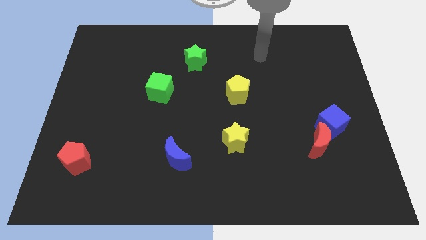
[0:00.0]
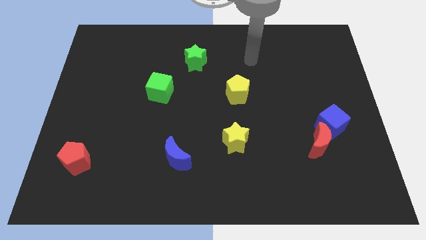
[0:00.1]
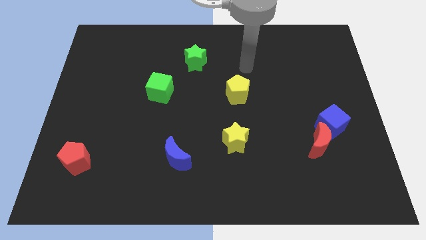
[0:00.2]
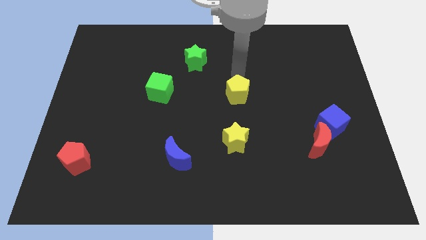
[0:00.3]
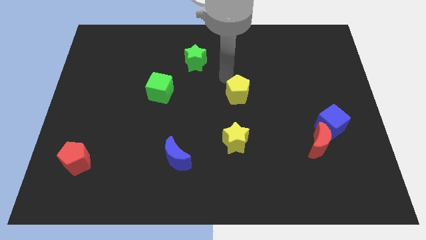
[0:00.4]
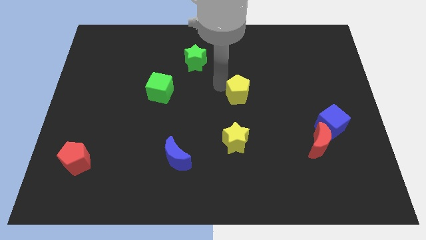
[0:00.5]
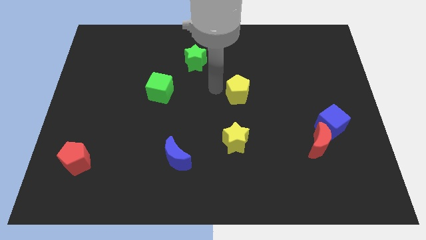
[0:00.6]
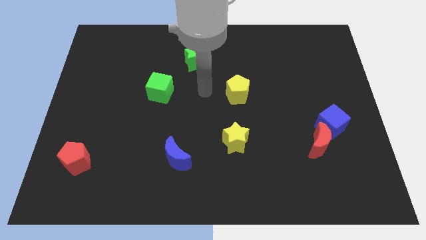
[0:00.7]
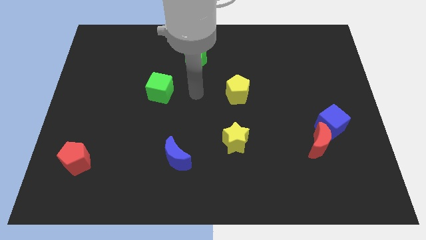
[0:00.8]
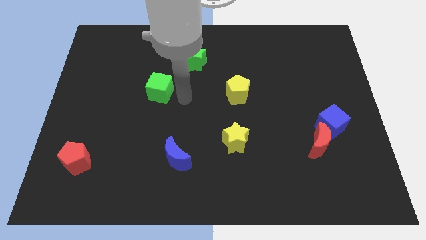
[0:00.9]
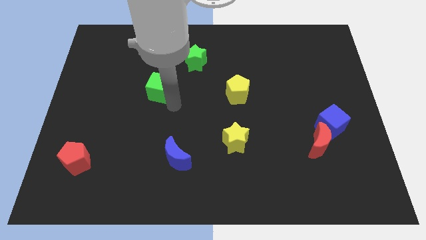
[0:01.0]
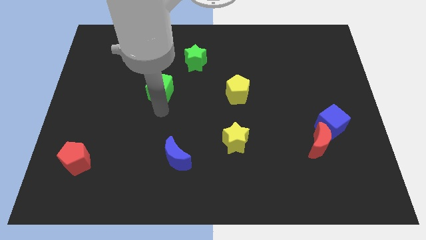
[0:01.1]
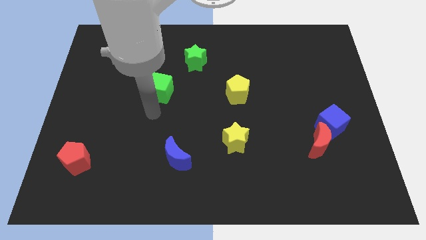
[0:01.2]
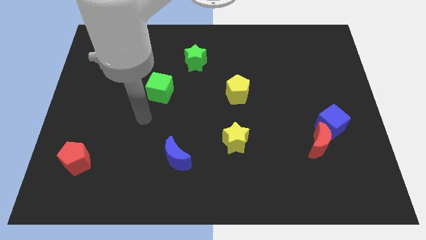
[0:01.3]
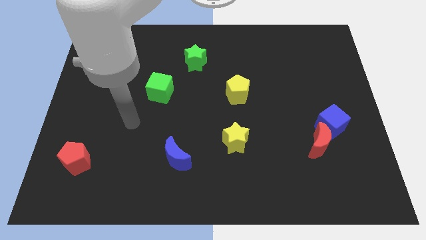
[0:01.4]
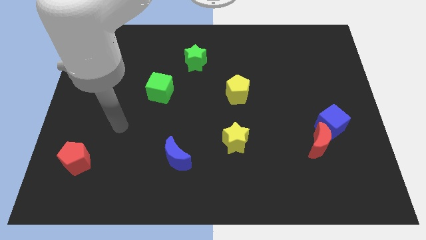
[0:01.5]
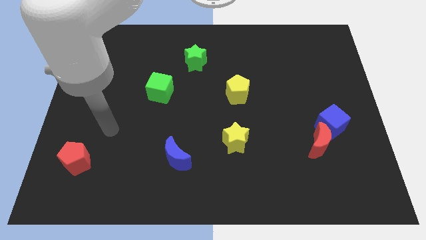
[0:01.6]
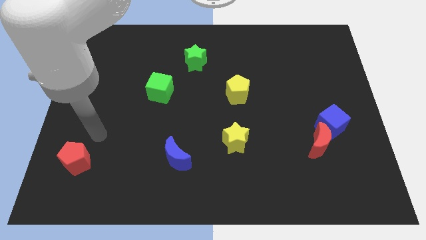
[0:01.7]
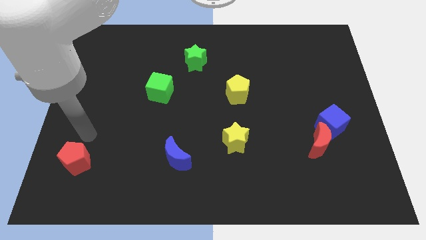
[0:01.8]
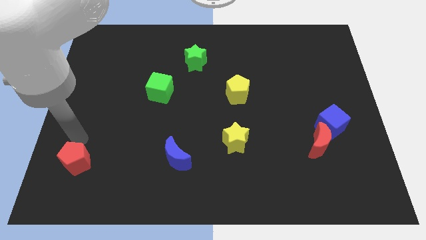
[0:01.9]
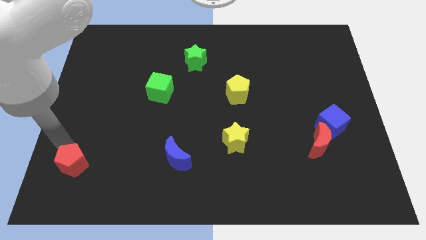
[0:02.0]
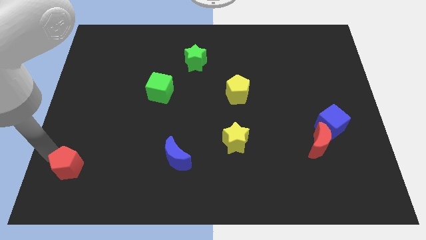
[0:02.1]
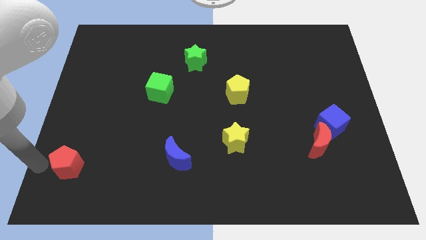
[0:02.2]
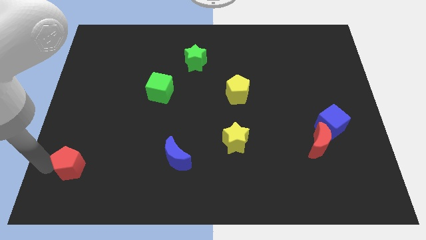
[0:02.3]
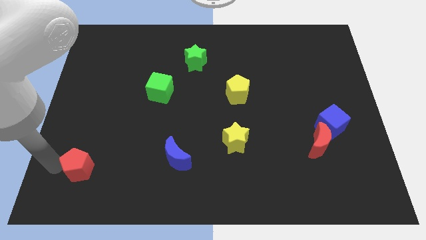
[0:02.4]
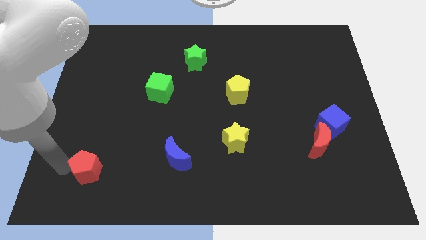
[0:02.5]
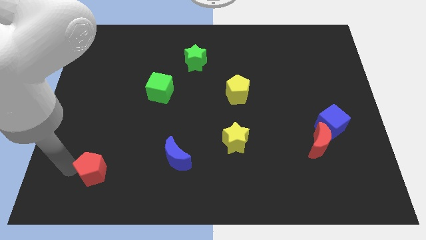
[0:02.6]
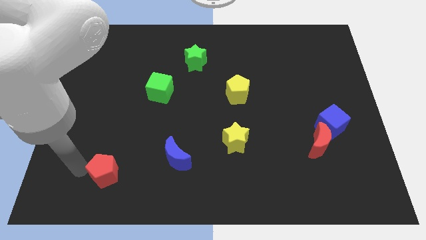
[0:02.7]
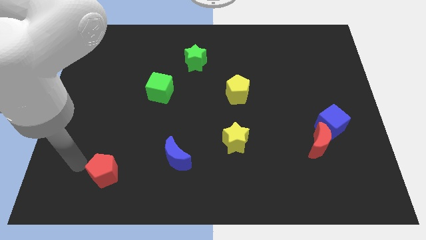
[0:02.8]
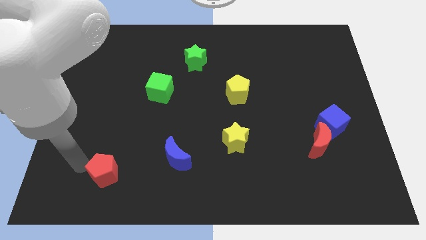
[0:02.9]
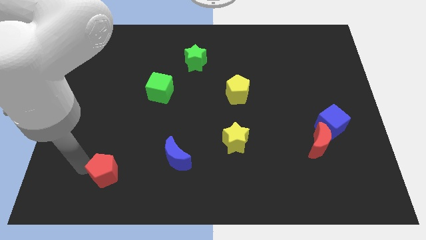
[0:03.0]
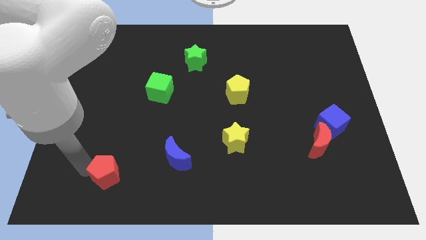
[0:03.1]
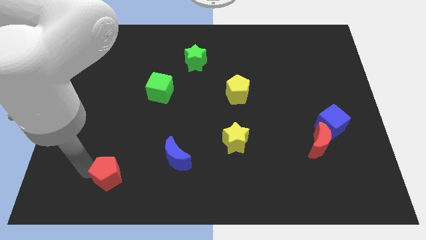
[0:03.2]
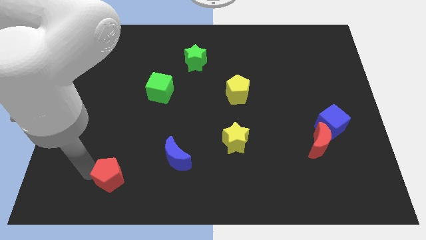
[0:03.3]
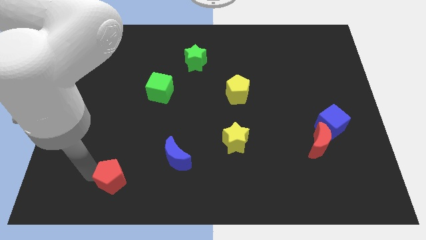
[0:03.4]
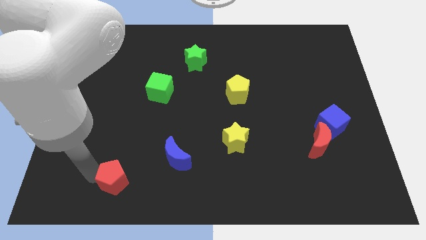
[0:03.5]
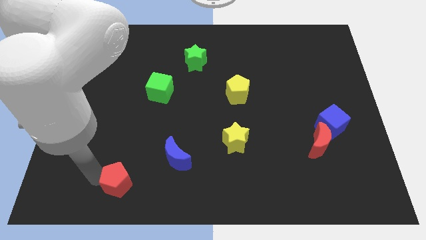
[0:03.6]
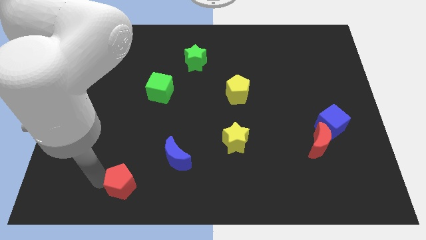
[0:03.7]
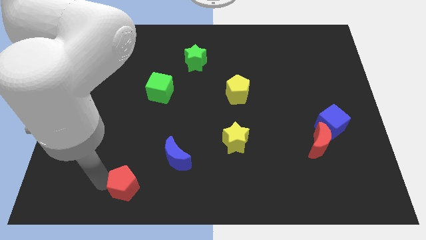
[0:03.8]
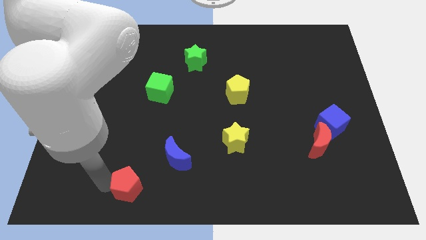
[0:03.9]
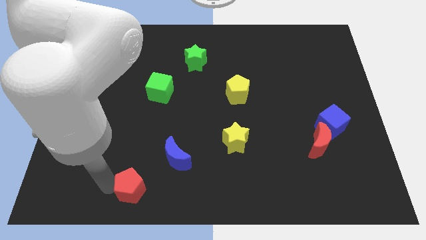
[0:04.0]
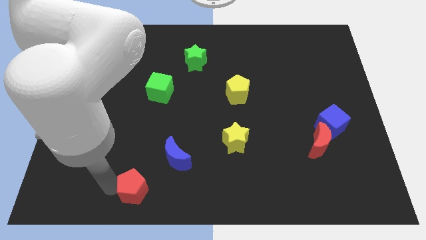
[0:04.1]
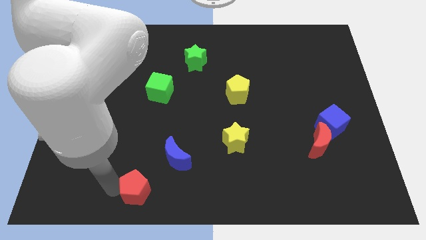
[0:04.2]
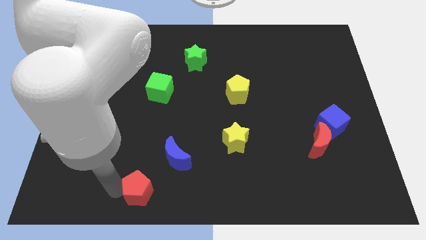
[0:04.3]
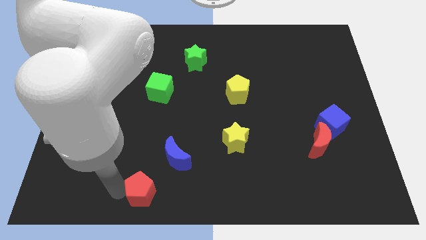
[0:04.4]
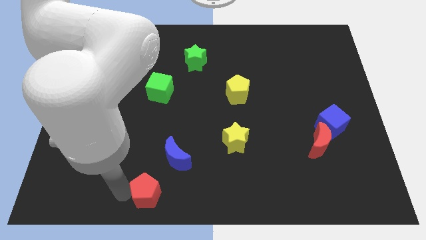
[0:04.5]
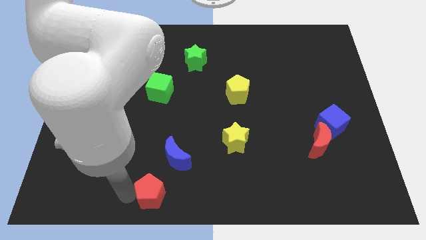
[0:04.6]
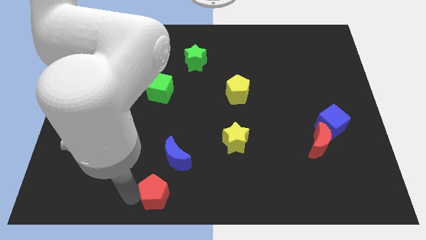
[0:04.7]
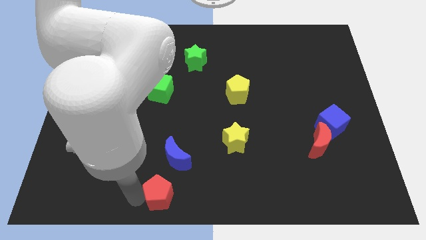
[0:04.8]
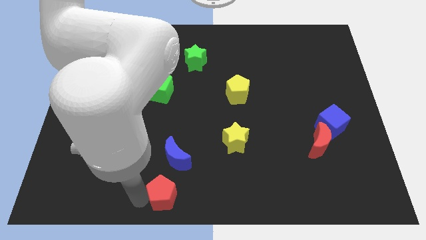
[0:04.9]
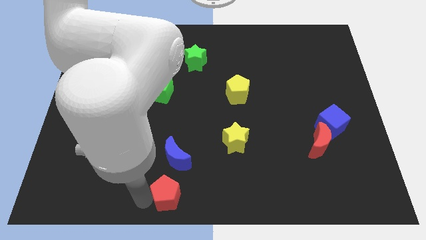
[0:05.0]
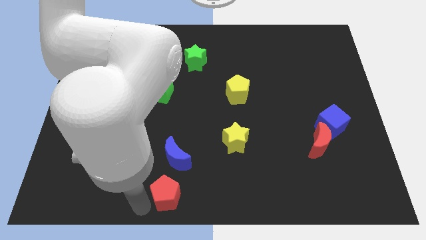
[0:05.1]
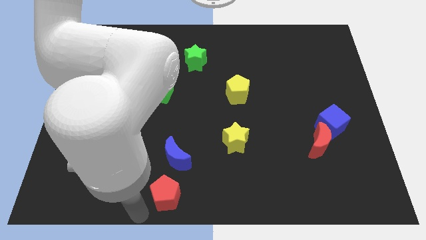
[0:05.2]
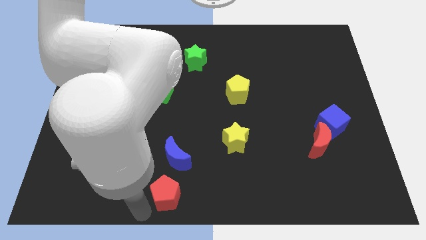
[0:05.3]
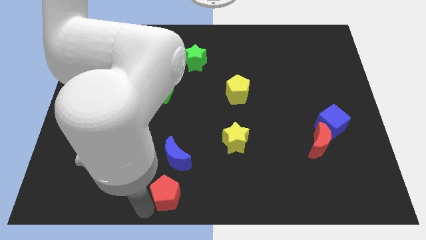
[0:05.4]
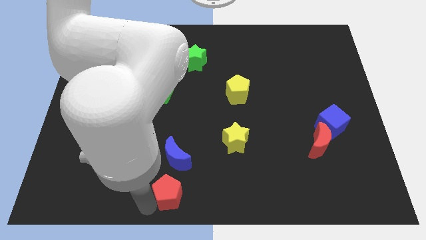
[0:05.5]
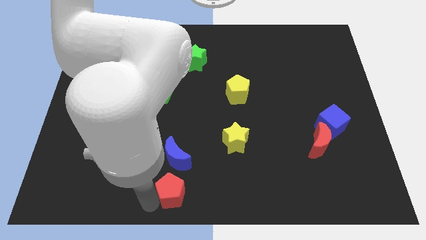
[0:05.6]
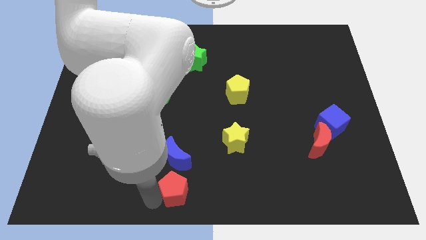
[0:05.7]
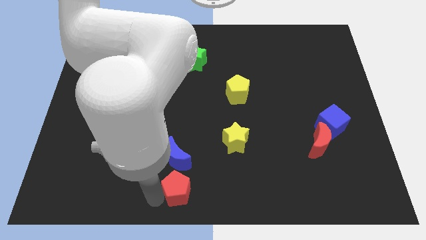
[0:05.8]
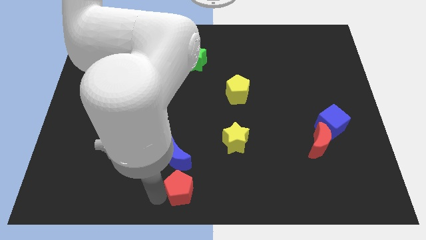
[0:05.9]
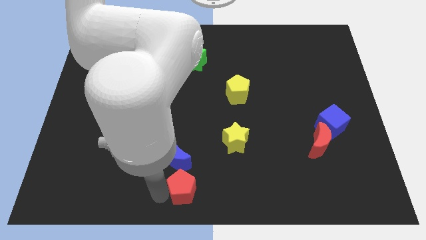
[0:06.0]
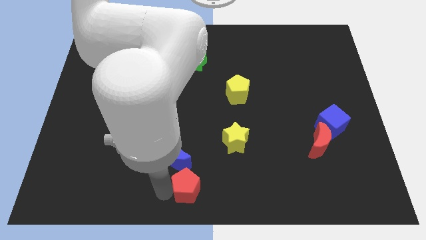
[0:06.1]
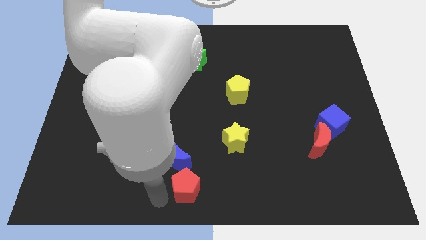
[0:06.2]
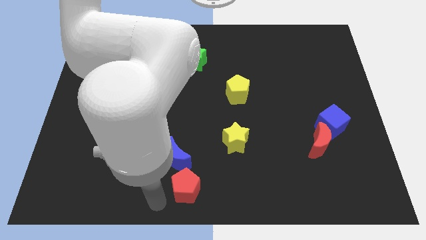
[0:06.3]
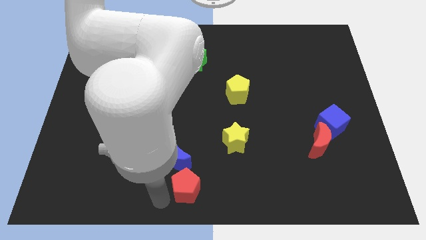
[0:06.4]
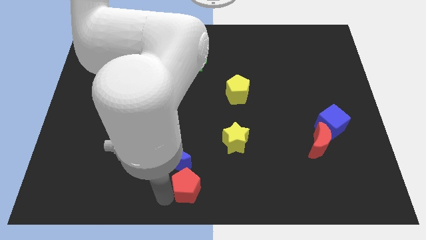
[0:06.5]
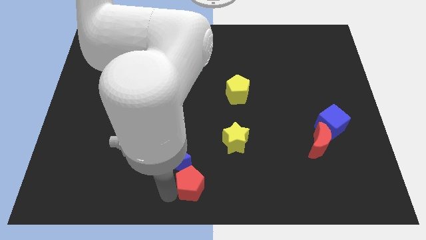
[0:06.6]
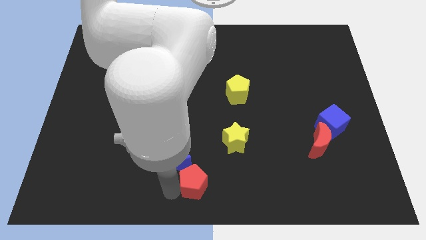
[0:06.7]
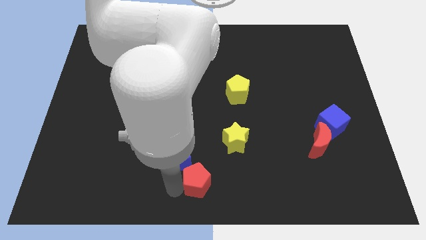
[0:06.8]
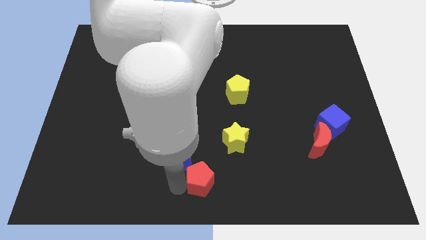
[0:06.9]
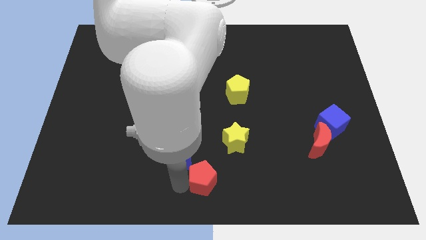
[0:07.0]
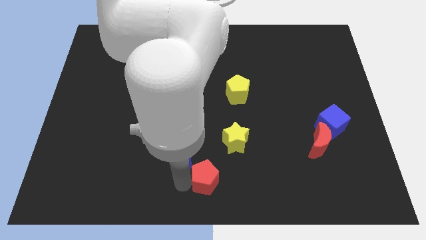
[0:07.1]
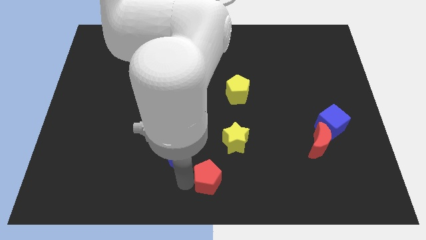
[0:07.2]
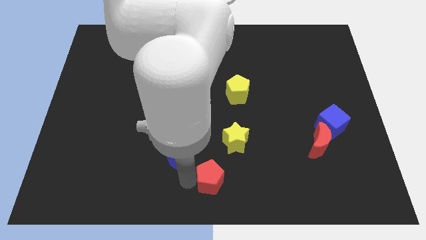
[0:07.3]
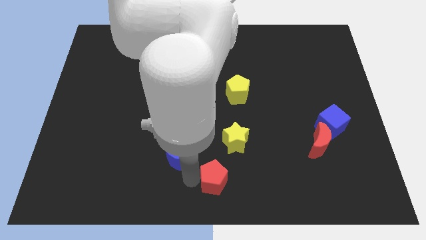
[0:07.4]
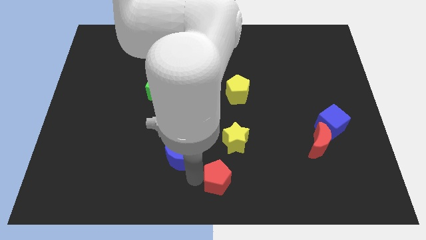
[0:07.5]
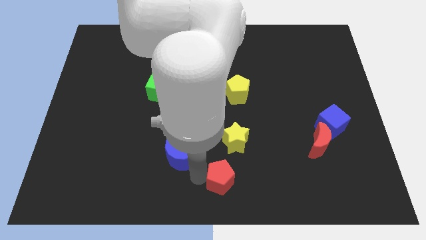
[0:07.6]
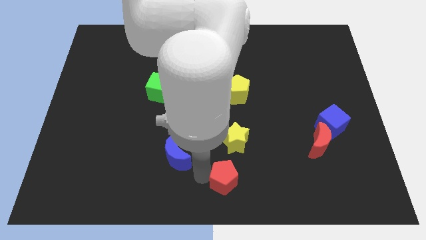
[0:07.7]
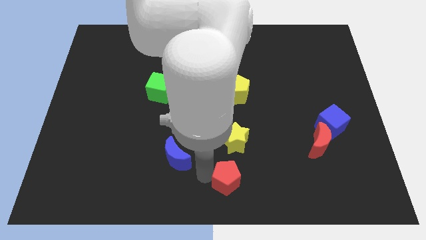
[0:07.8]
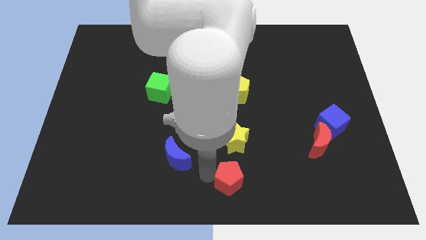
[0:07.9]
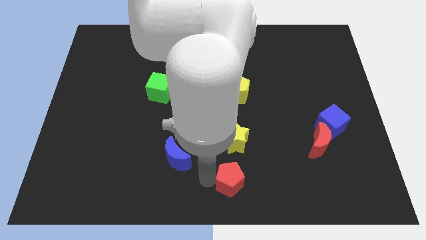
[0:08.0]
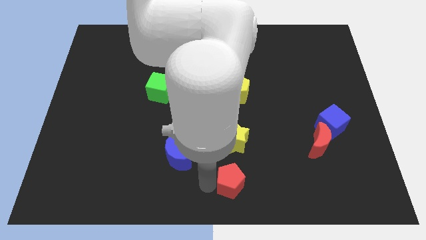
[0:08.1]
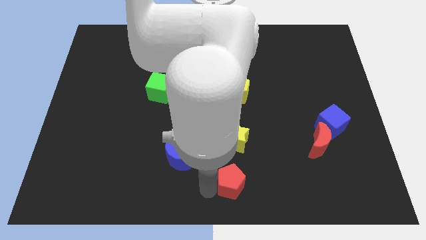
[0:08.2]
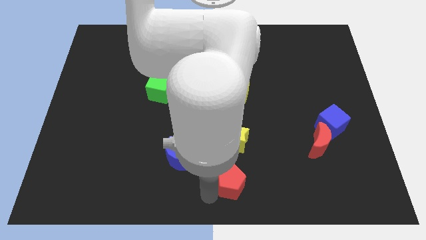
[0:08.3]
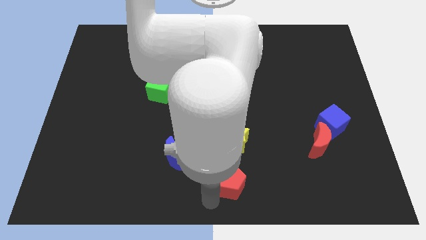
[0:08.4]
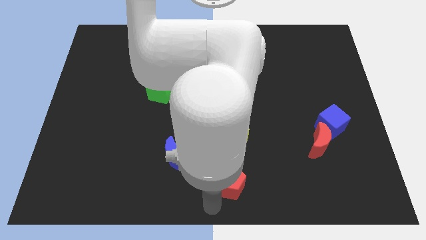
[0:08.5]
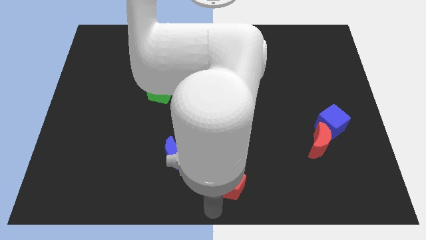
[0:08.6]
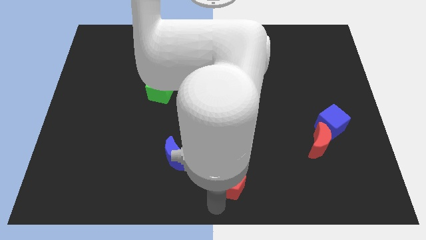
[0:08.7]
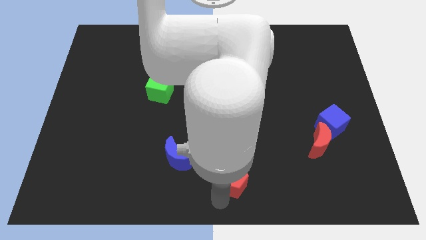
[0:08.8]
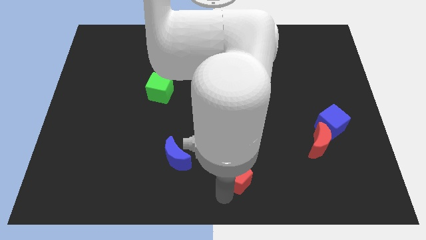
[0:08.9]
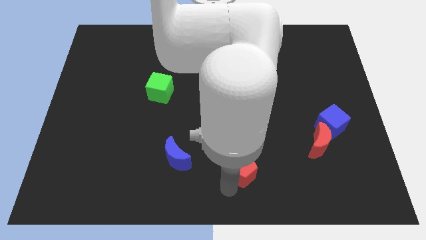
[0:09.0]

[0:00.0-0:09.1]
push the red pentagon diagonally down and to the right of the yellow star
